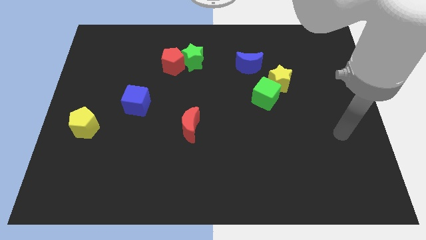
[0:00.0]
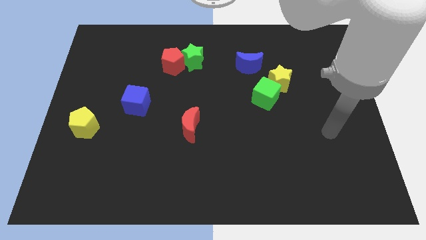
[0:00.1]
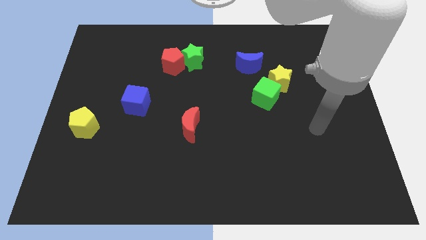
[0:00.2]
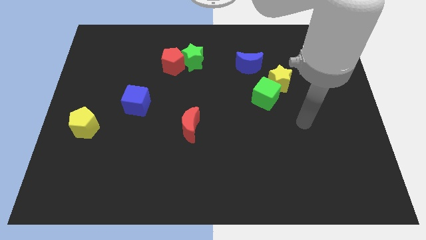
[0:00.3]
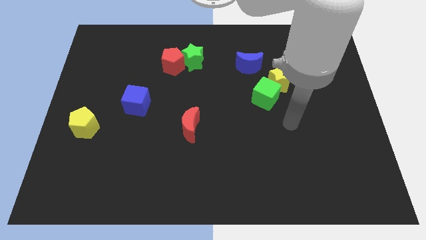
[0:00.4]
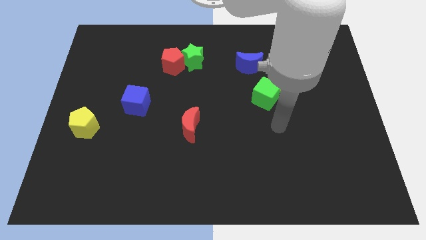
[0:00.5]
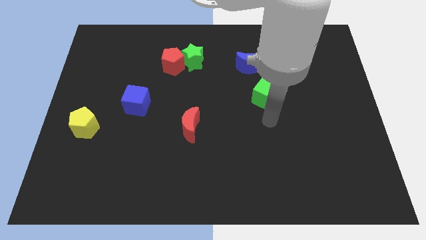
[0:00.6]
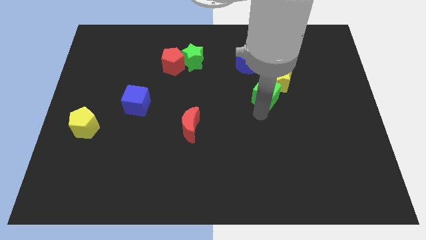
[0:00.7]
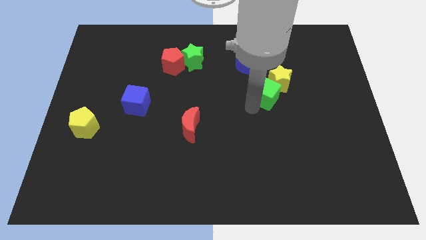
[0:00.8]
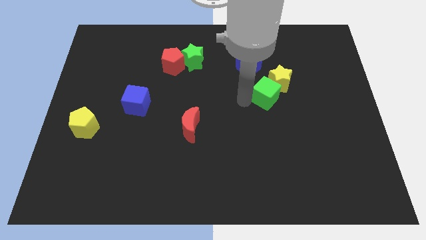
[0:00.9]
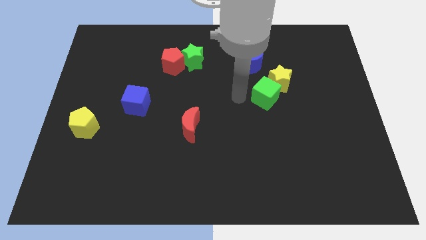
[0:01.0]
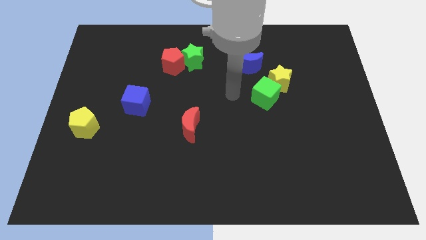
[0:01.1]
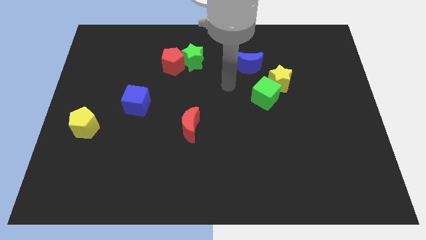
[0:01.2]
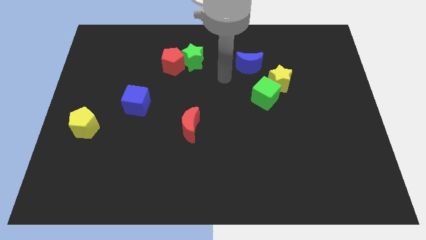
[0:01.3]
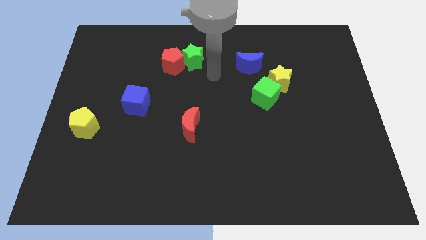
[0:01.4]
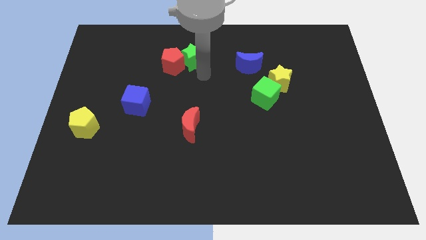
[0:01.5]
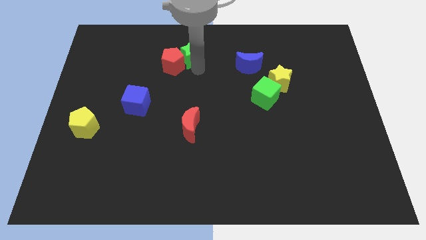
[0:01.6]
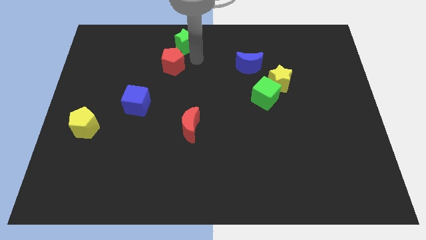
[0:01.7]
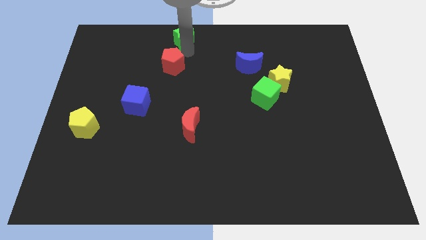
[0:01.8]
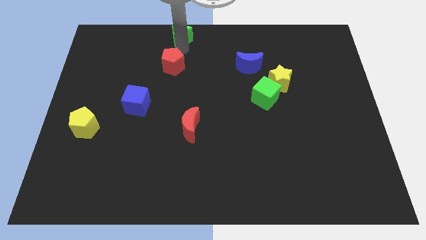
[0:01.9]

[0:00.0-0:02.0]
pull the red pentagon apart from the green star

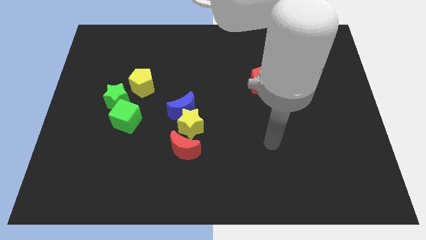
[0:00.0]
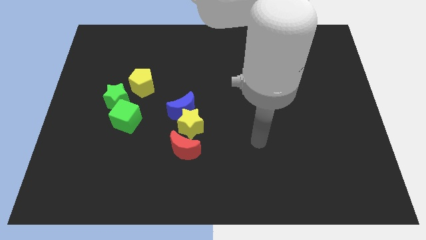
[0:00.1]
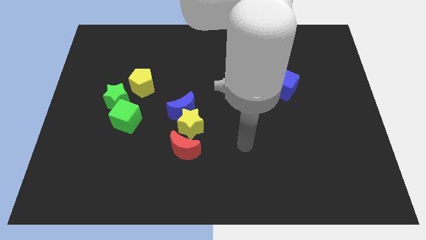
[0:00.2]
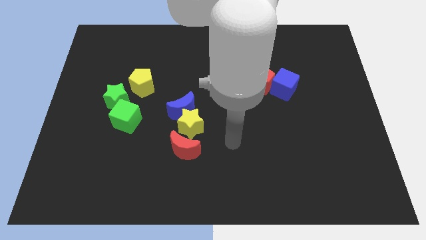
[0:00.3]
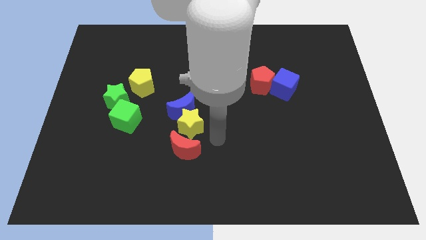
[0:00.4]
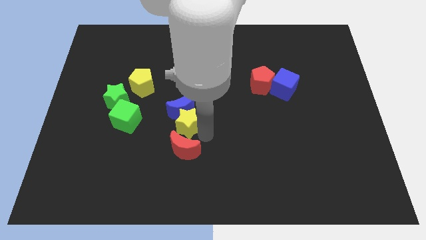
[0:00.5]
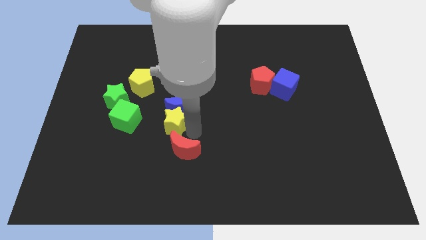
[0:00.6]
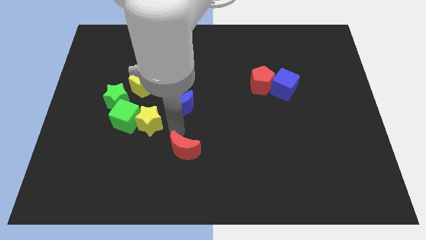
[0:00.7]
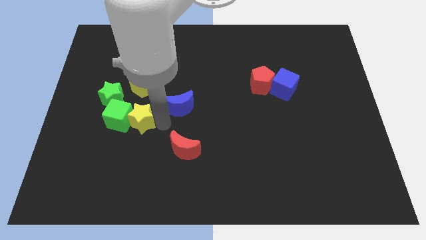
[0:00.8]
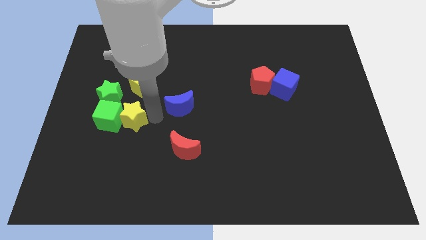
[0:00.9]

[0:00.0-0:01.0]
separate the blue moon from the yellow star

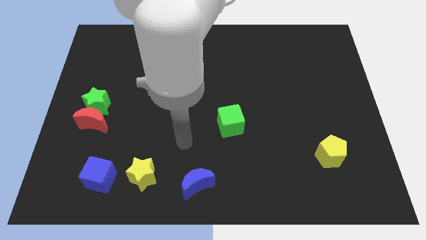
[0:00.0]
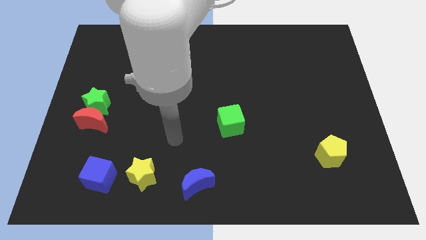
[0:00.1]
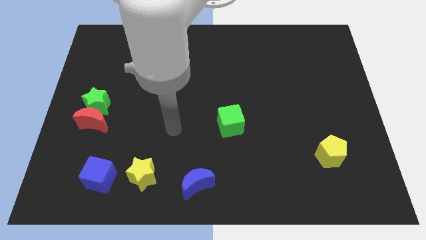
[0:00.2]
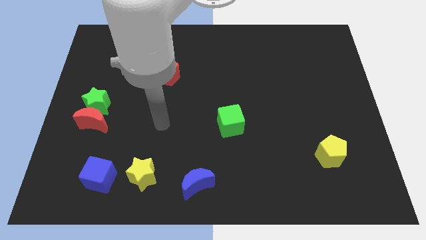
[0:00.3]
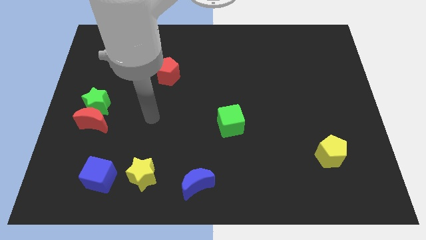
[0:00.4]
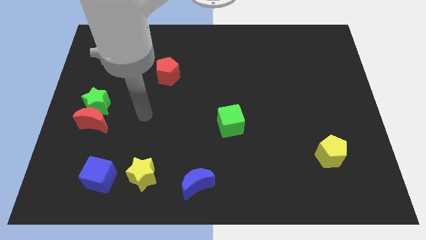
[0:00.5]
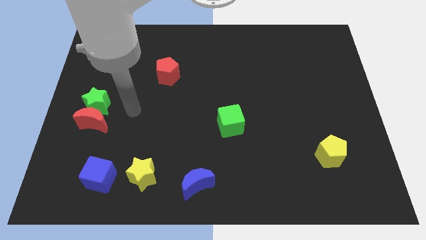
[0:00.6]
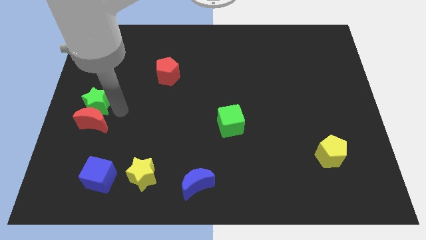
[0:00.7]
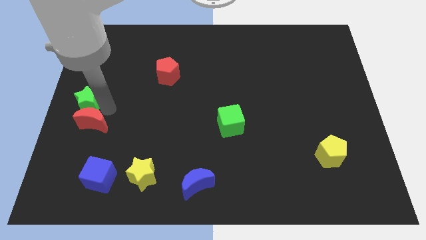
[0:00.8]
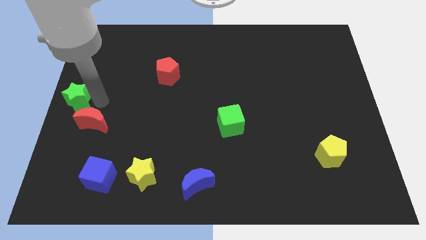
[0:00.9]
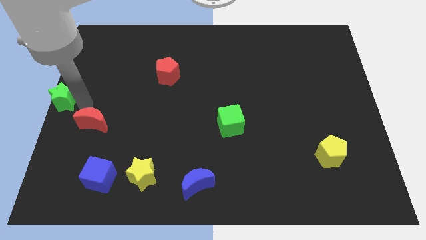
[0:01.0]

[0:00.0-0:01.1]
move the red moon away from the green star

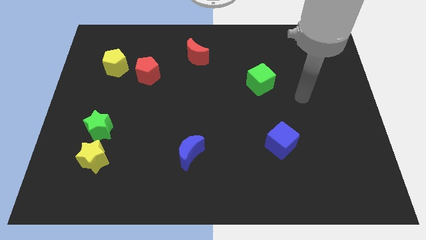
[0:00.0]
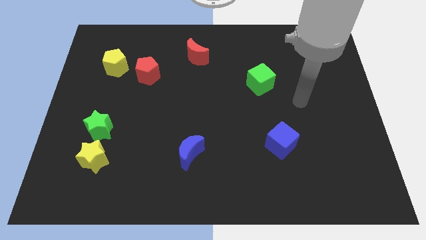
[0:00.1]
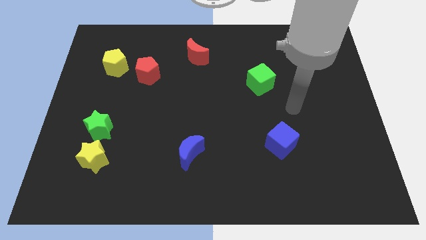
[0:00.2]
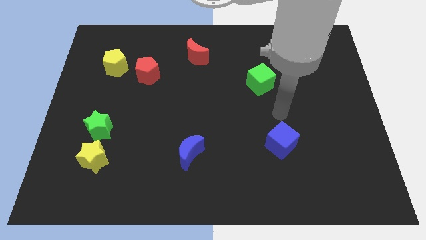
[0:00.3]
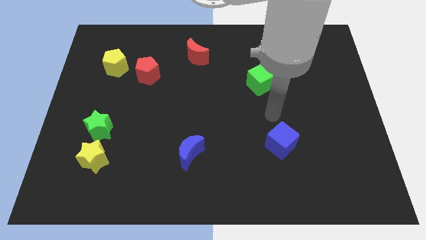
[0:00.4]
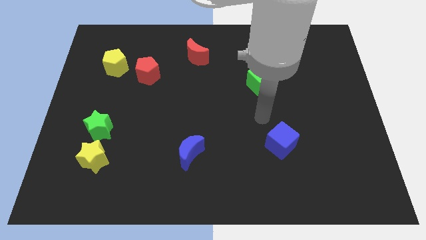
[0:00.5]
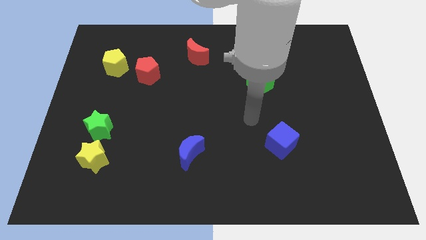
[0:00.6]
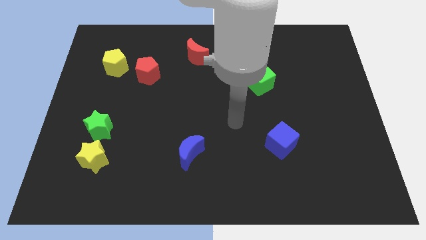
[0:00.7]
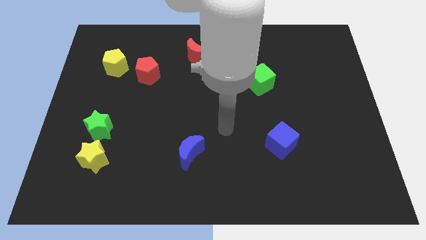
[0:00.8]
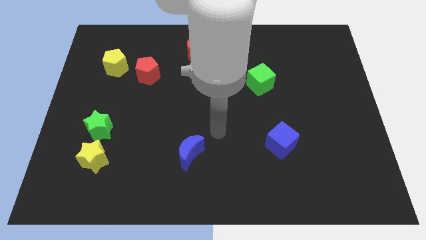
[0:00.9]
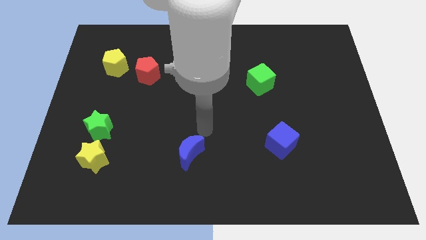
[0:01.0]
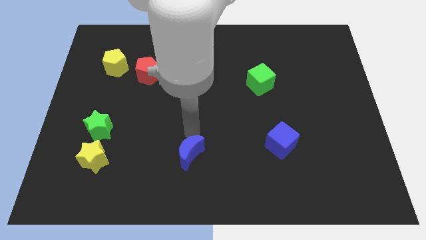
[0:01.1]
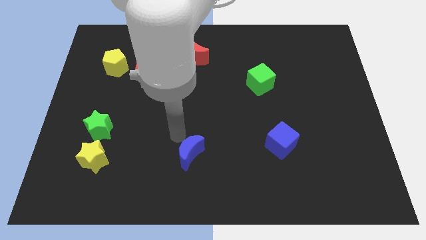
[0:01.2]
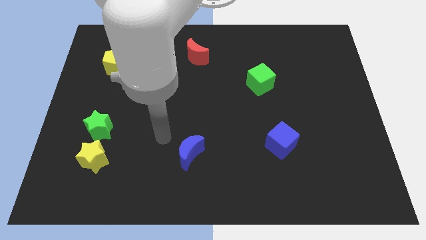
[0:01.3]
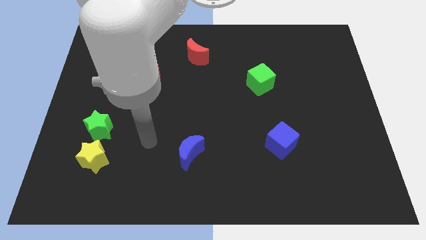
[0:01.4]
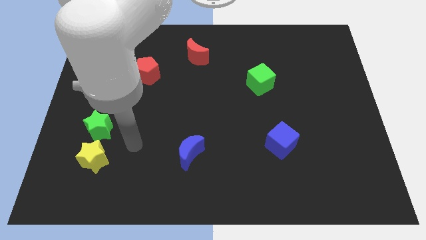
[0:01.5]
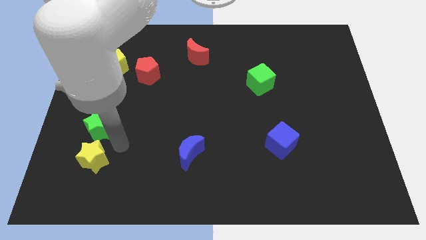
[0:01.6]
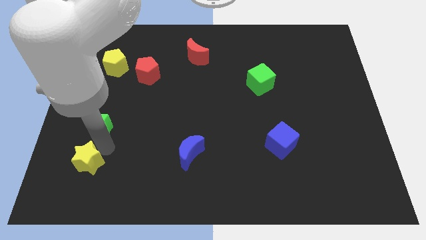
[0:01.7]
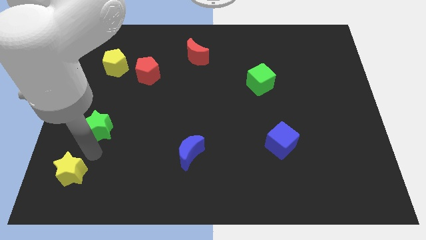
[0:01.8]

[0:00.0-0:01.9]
move the green star away from the yellow star

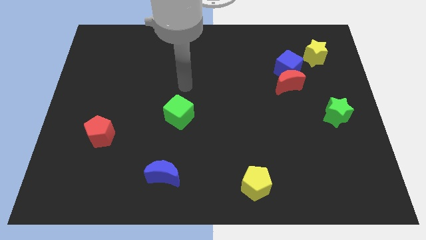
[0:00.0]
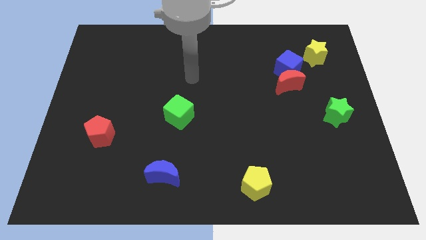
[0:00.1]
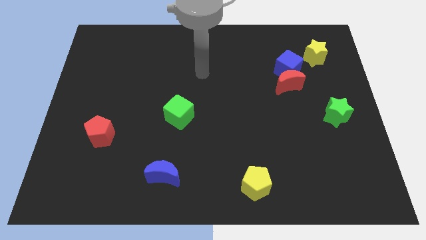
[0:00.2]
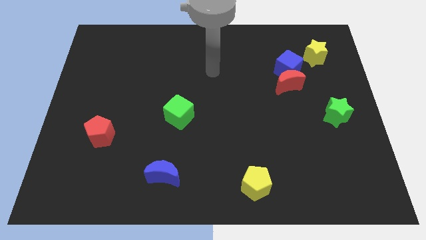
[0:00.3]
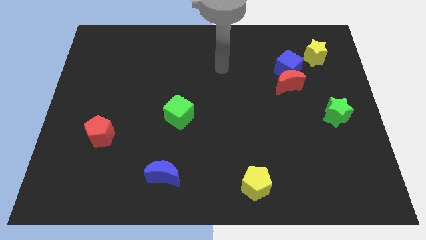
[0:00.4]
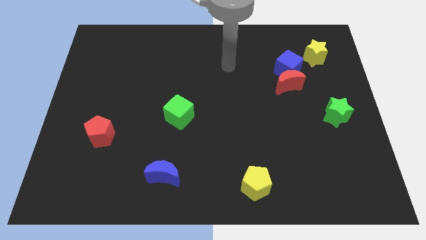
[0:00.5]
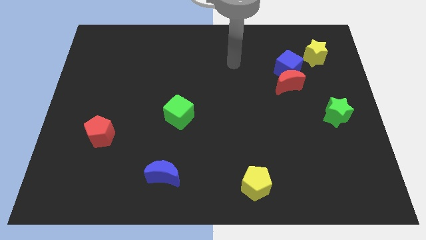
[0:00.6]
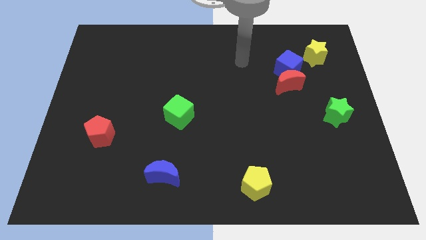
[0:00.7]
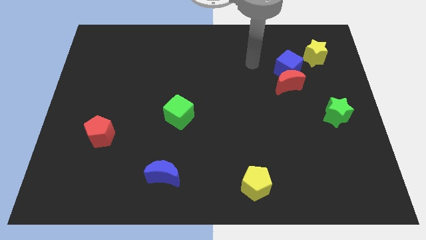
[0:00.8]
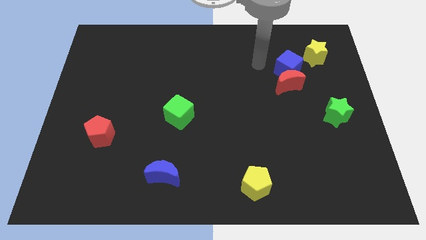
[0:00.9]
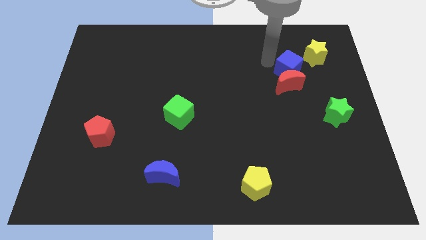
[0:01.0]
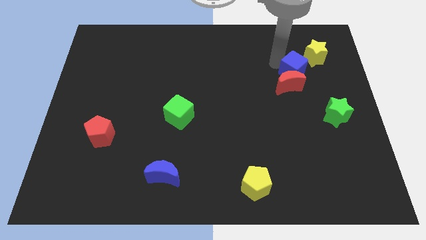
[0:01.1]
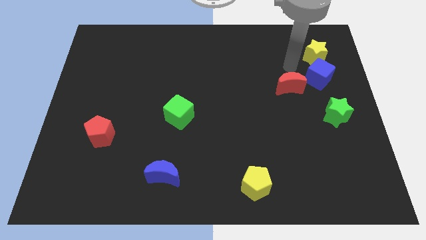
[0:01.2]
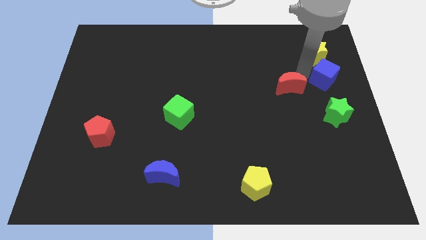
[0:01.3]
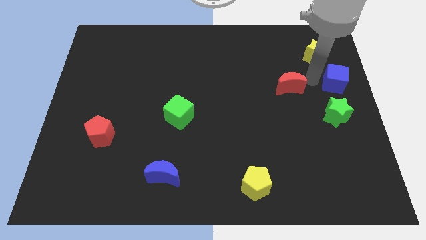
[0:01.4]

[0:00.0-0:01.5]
separate the red moon from the blue cube

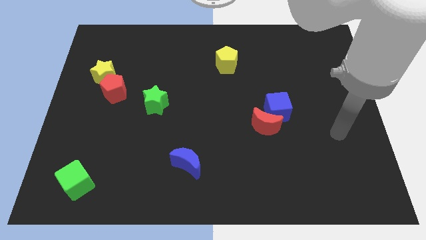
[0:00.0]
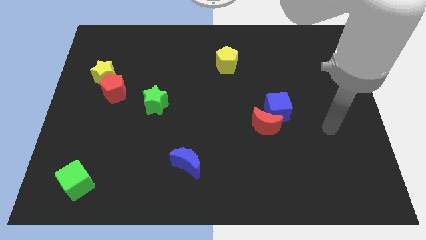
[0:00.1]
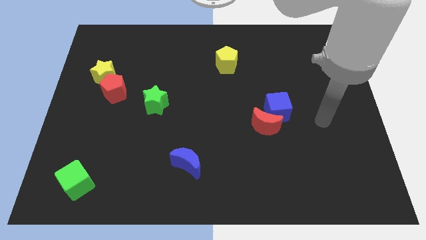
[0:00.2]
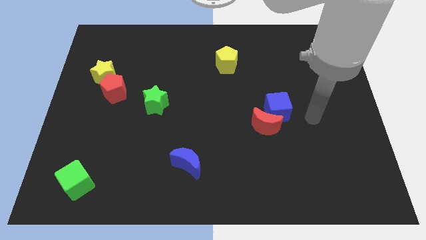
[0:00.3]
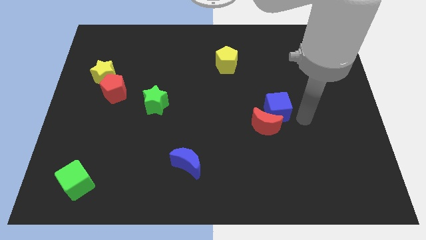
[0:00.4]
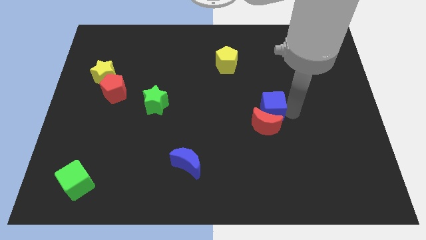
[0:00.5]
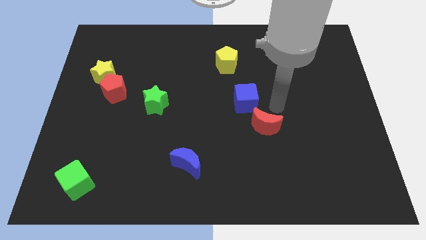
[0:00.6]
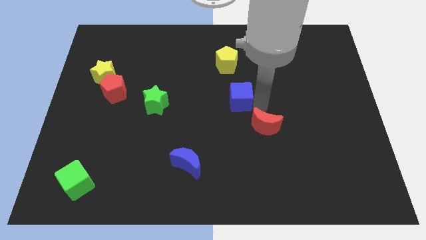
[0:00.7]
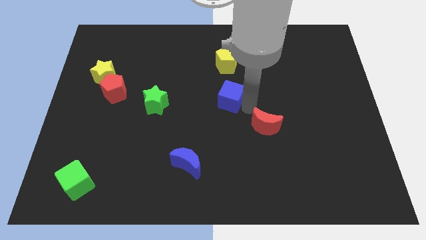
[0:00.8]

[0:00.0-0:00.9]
pull the red moon apart from the blue cube

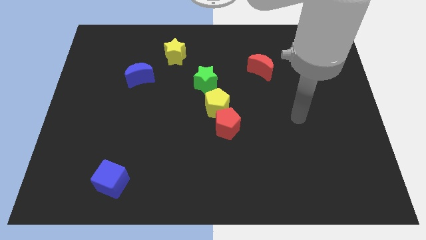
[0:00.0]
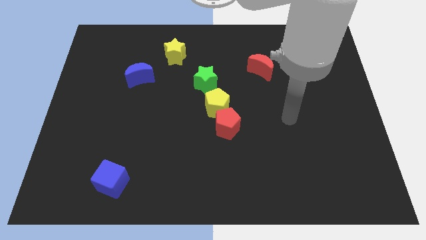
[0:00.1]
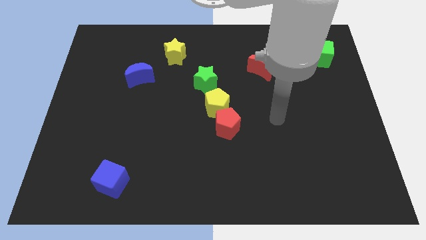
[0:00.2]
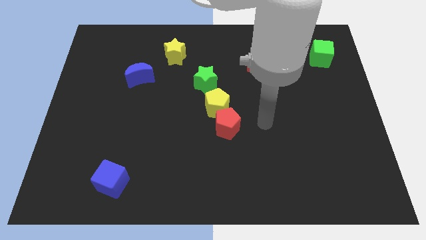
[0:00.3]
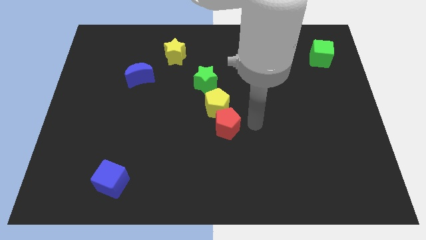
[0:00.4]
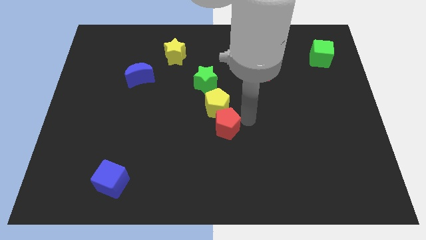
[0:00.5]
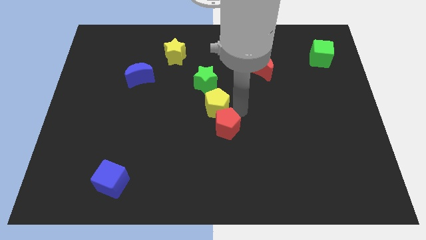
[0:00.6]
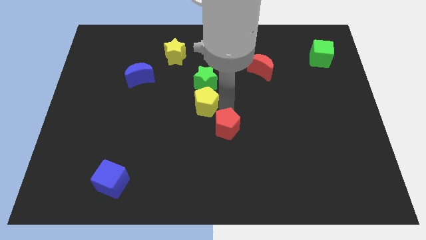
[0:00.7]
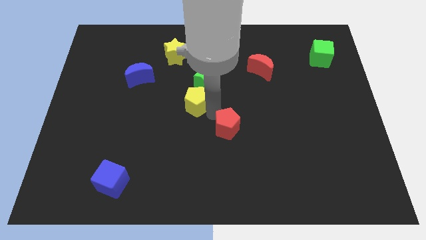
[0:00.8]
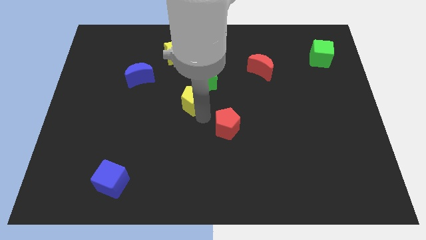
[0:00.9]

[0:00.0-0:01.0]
pull the red pentagon apart from the yellow pentagon
